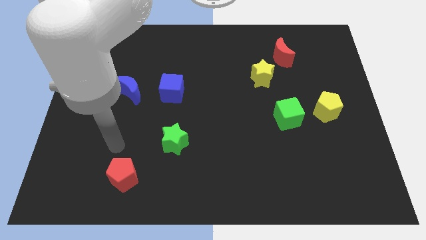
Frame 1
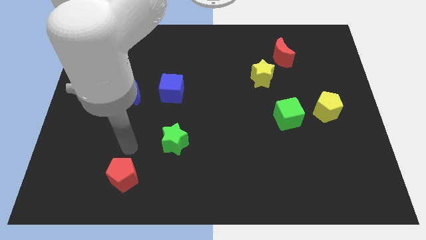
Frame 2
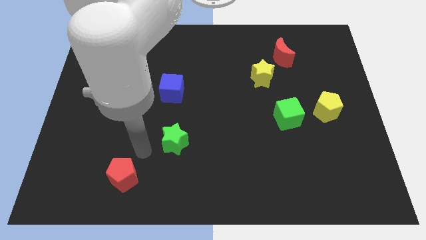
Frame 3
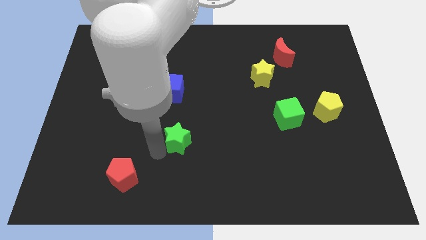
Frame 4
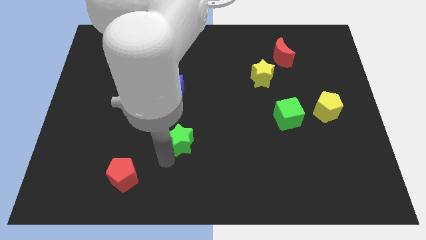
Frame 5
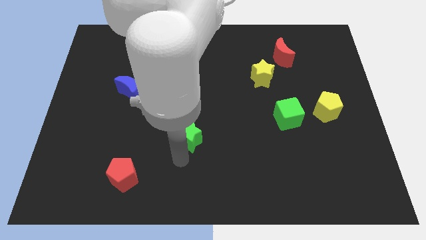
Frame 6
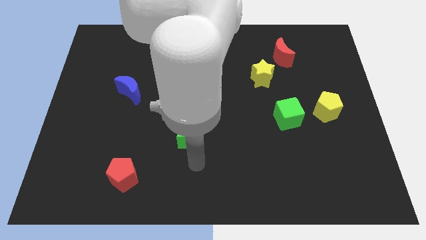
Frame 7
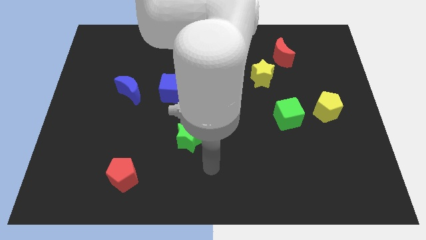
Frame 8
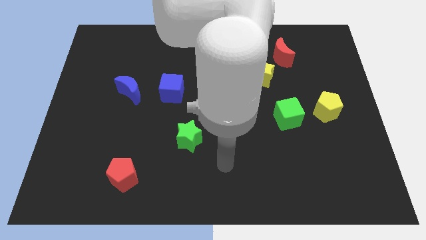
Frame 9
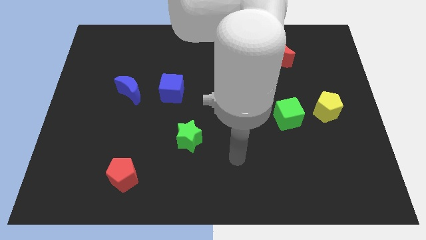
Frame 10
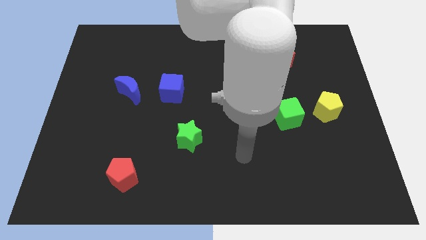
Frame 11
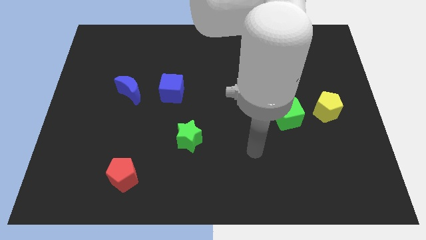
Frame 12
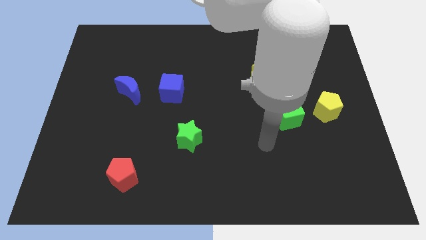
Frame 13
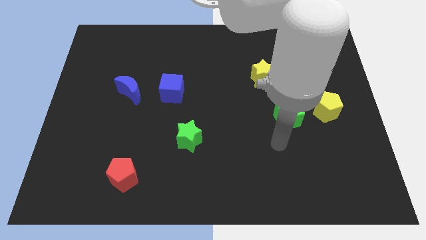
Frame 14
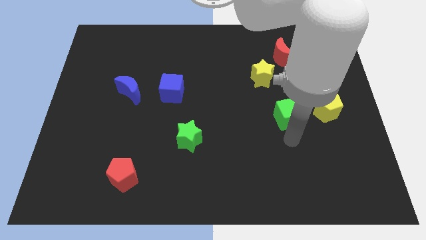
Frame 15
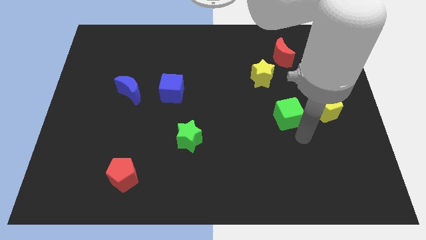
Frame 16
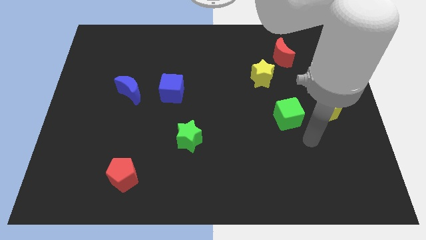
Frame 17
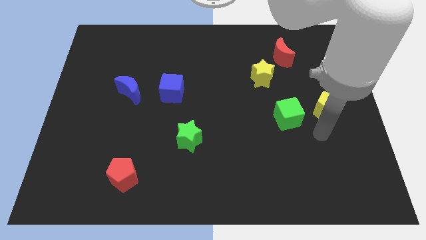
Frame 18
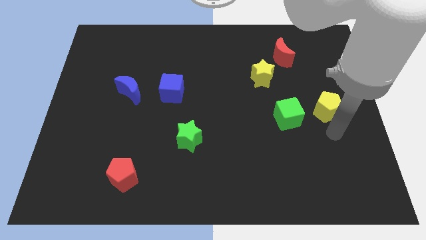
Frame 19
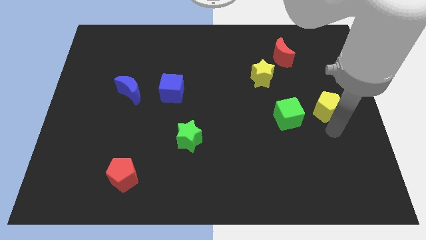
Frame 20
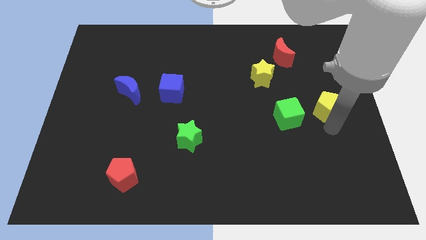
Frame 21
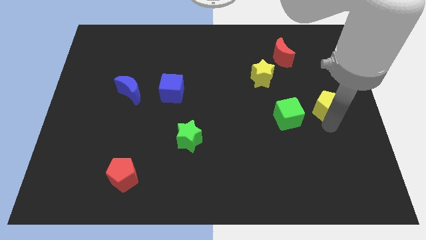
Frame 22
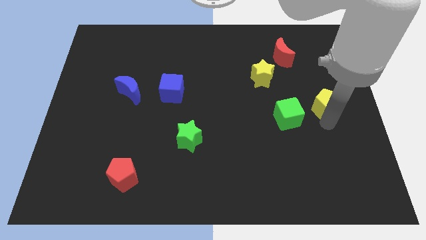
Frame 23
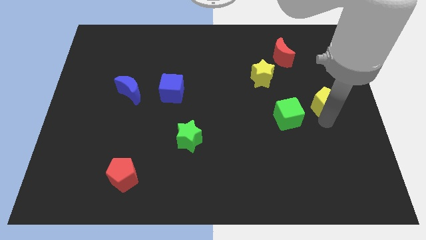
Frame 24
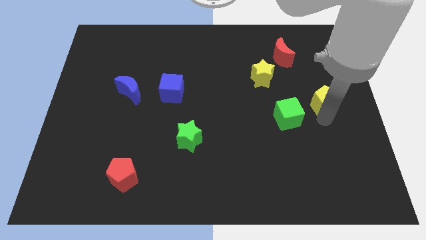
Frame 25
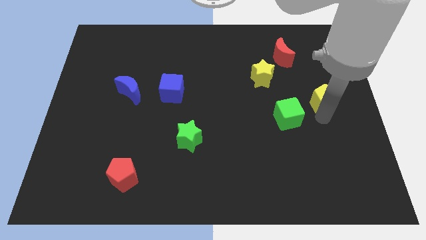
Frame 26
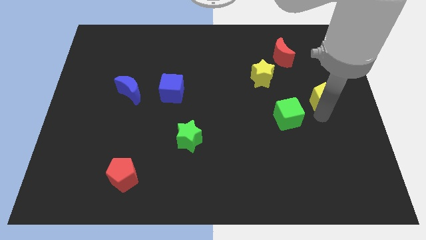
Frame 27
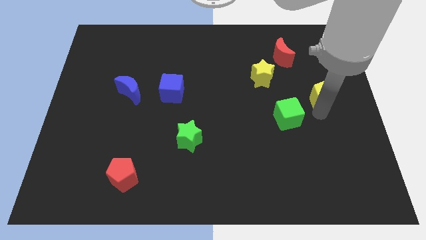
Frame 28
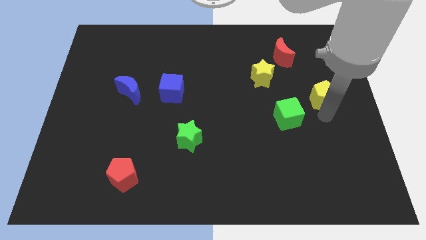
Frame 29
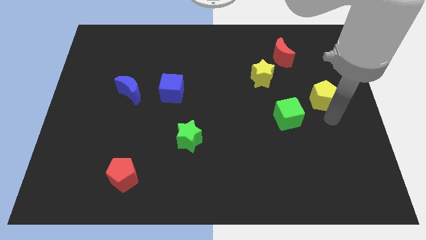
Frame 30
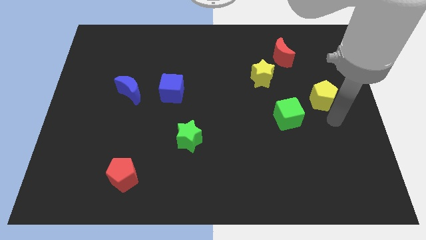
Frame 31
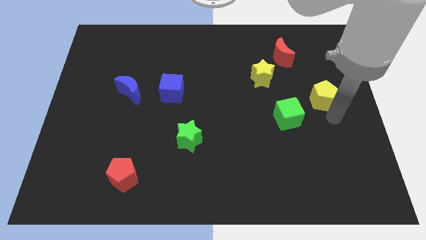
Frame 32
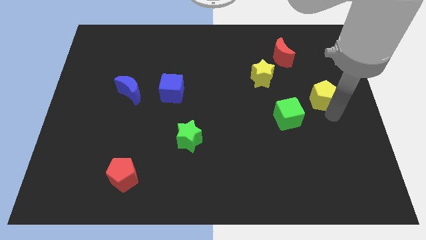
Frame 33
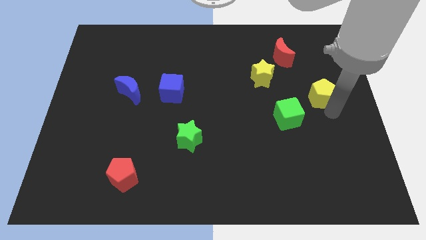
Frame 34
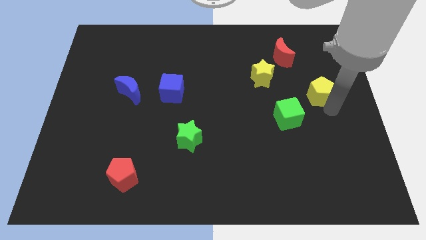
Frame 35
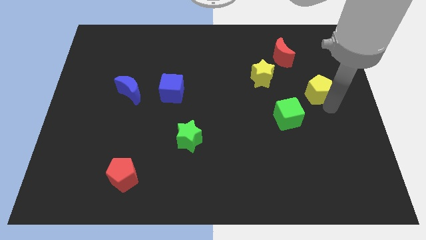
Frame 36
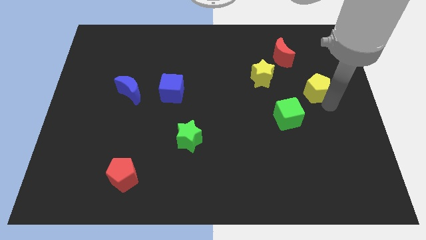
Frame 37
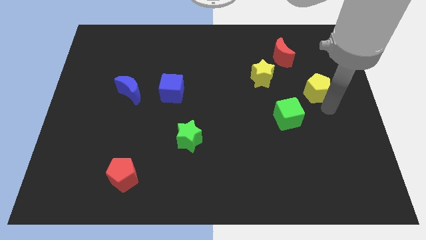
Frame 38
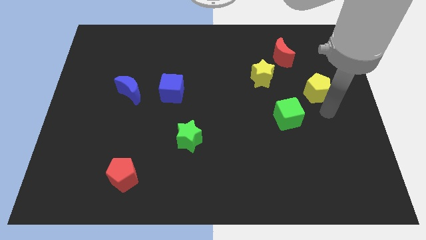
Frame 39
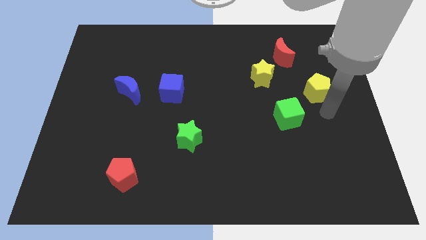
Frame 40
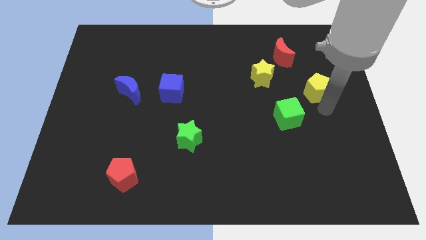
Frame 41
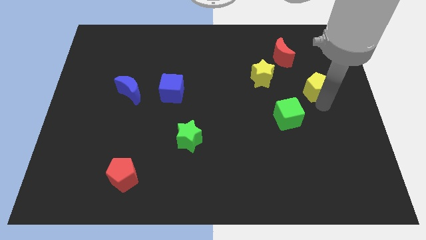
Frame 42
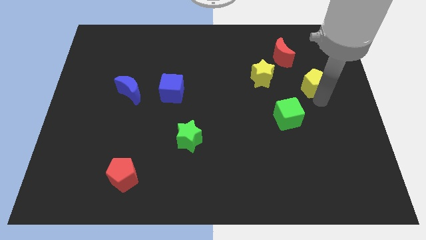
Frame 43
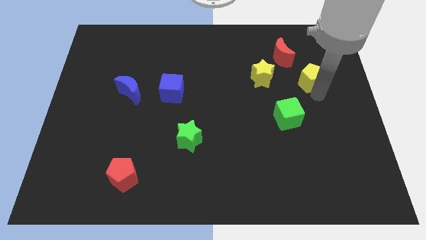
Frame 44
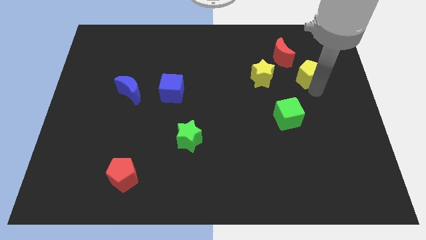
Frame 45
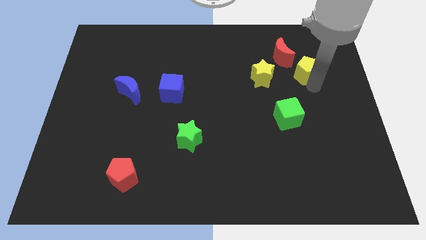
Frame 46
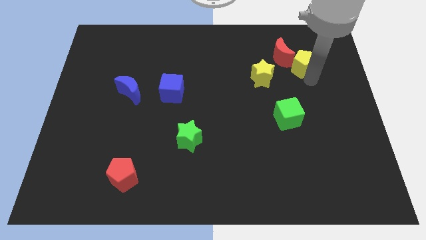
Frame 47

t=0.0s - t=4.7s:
move the yellow pentagon towards the red moon

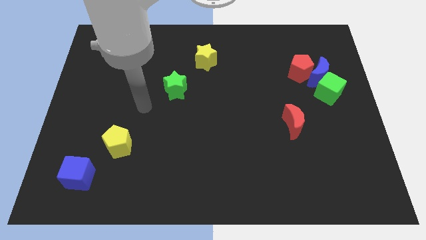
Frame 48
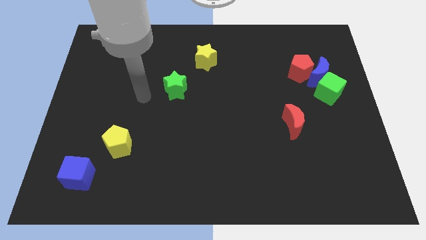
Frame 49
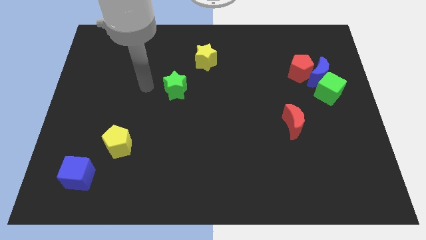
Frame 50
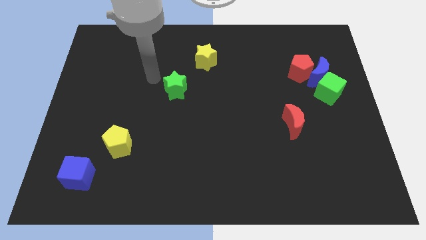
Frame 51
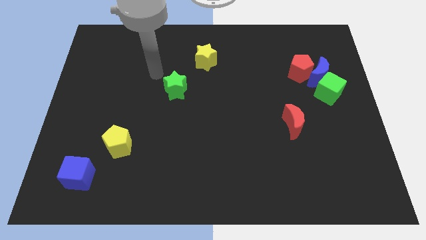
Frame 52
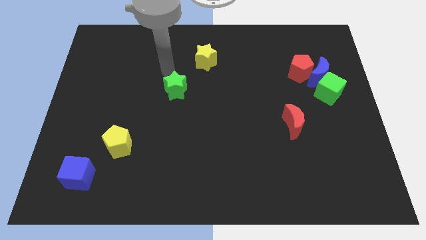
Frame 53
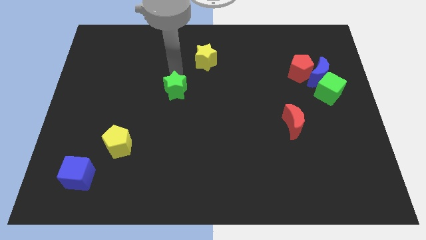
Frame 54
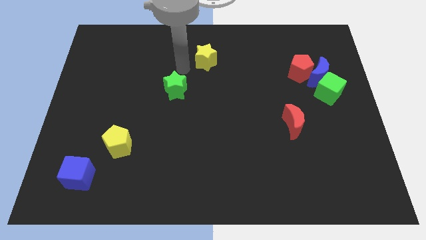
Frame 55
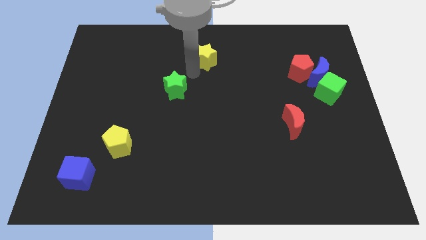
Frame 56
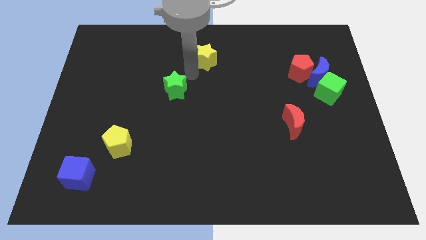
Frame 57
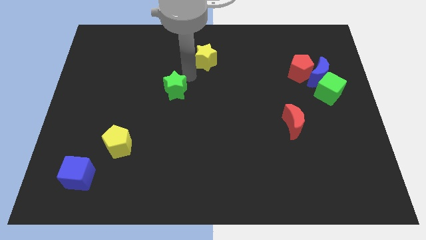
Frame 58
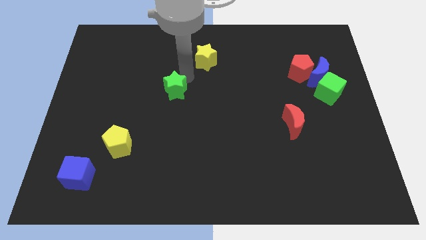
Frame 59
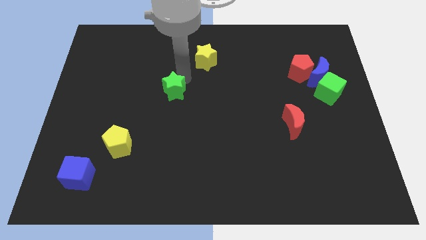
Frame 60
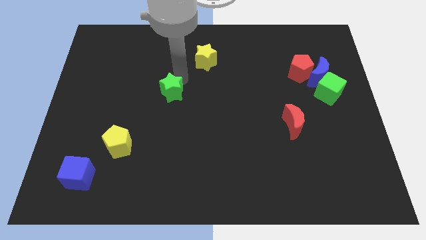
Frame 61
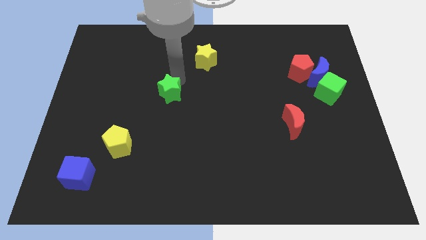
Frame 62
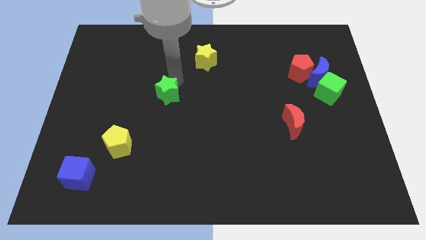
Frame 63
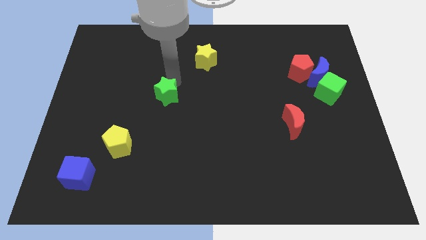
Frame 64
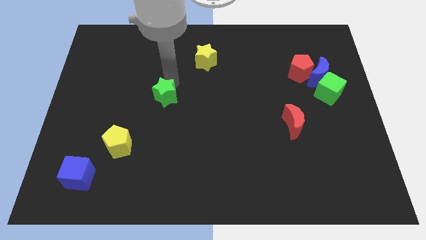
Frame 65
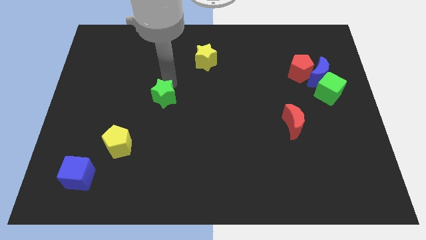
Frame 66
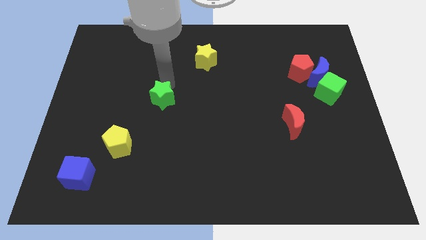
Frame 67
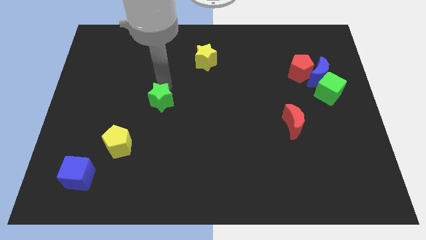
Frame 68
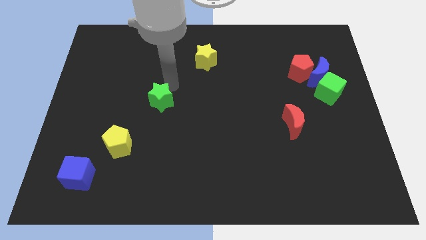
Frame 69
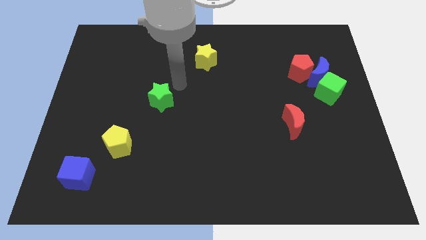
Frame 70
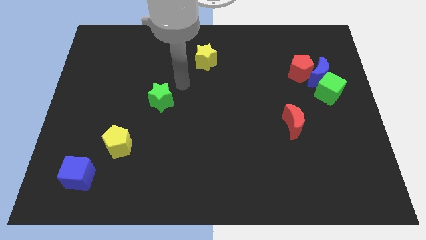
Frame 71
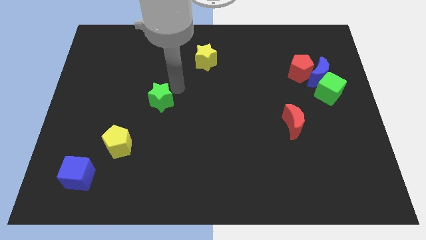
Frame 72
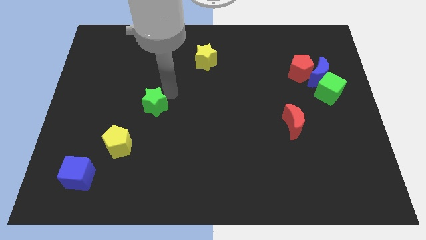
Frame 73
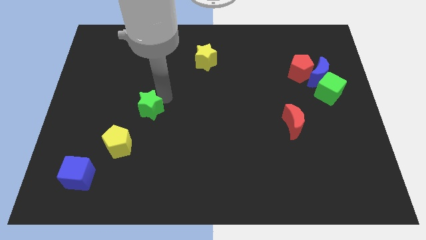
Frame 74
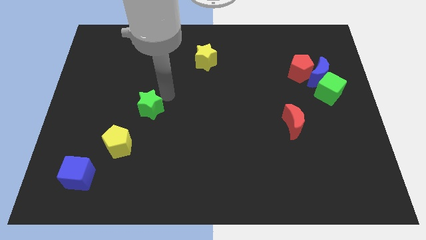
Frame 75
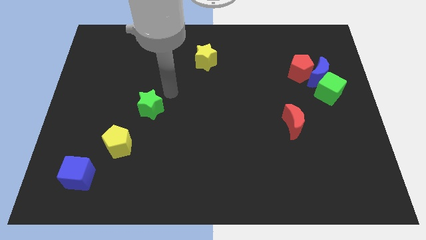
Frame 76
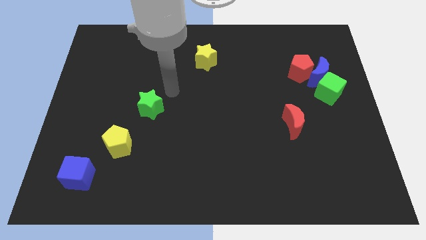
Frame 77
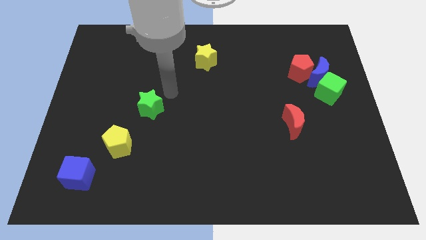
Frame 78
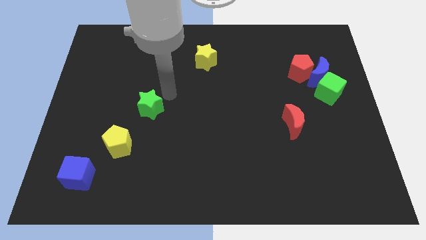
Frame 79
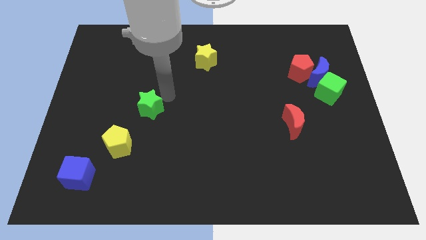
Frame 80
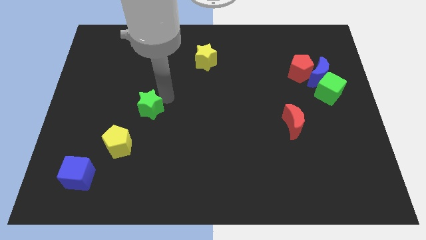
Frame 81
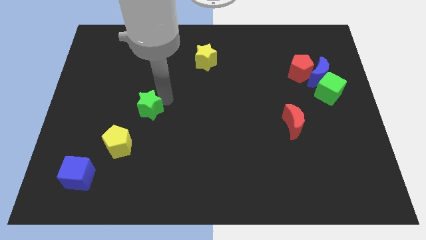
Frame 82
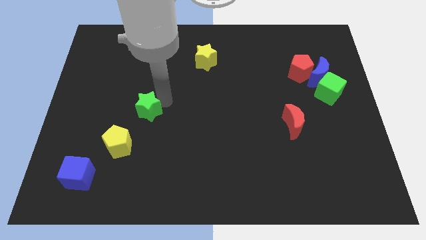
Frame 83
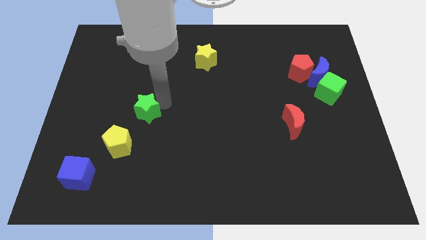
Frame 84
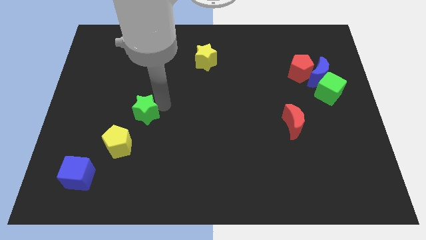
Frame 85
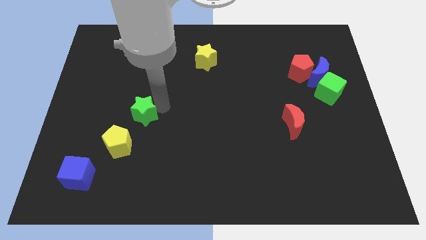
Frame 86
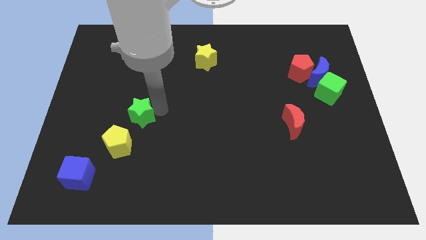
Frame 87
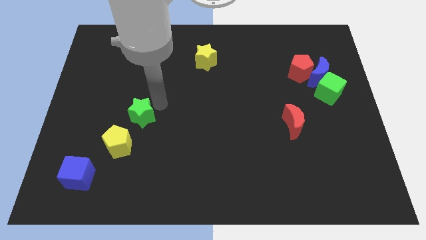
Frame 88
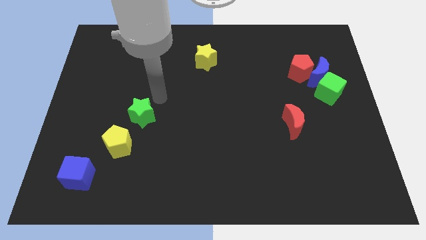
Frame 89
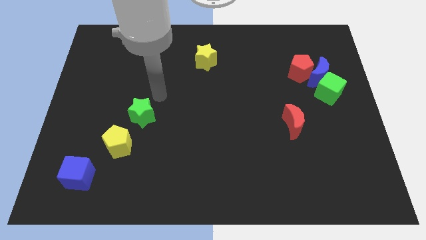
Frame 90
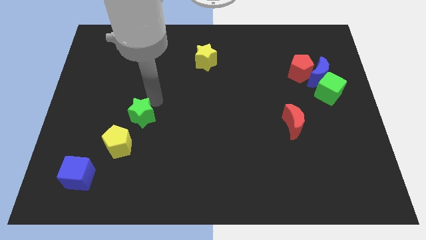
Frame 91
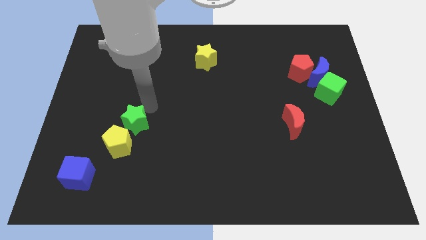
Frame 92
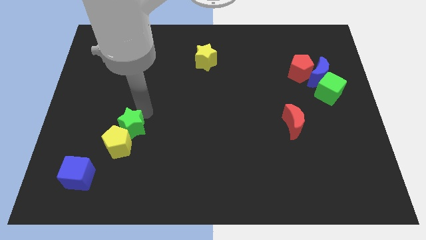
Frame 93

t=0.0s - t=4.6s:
move the green star towards the yellow pentagon
